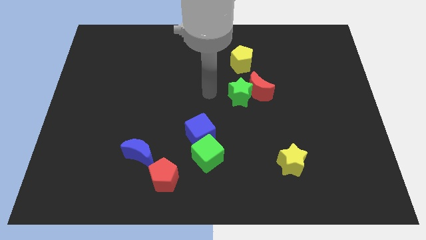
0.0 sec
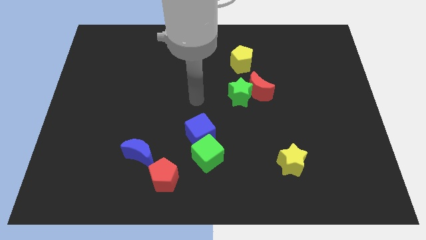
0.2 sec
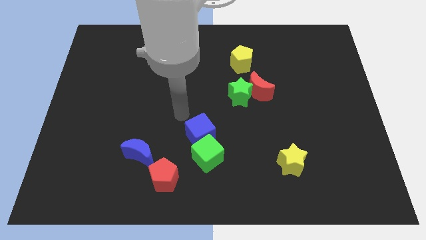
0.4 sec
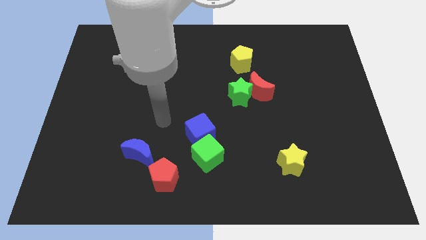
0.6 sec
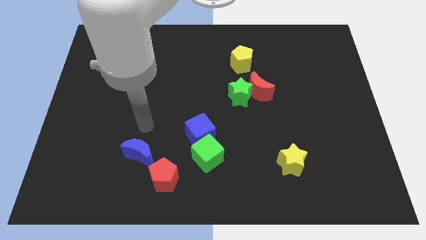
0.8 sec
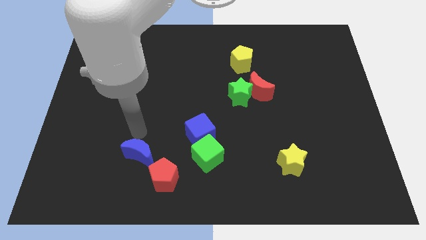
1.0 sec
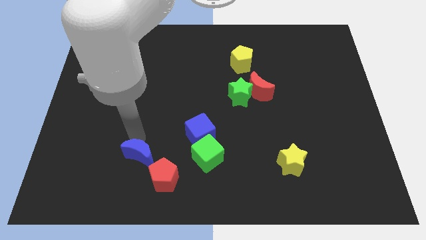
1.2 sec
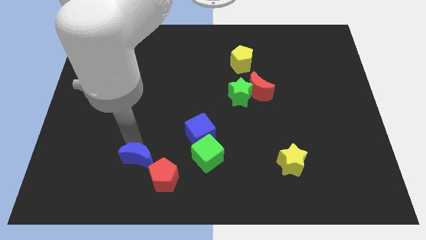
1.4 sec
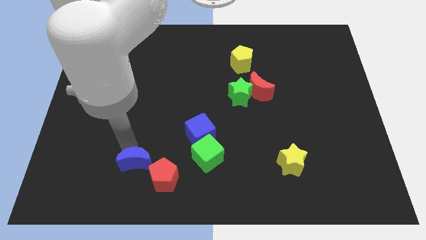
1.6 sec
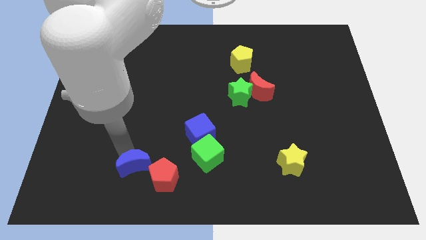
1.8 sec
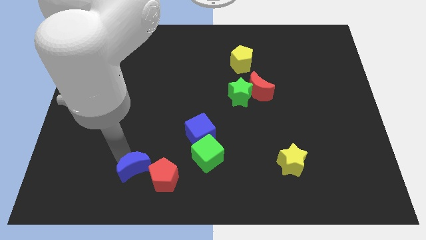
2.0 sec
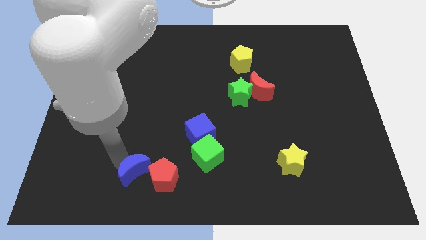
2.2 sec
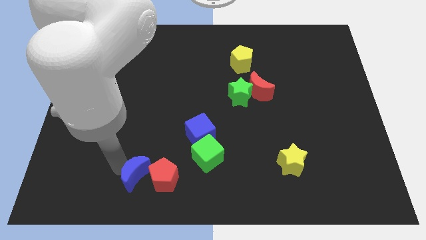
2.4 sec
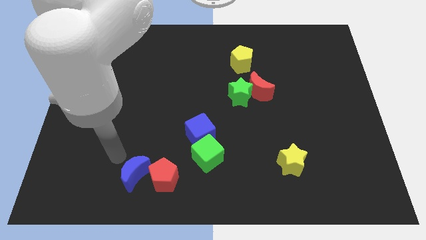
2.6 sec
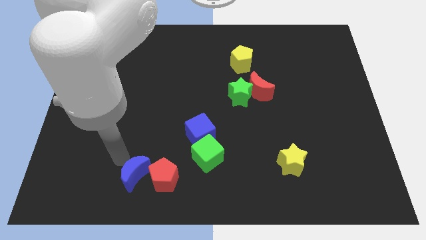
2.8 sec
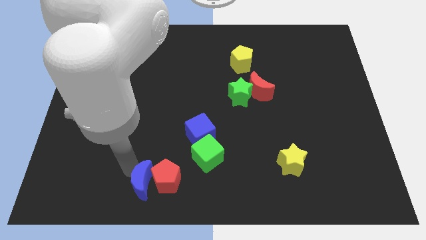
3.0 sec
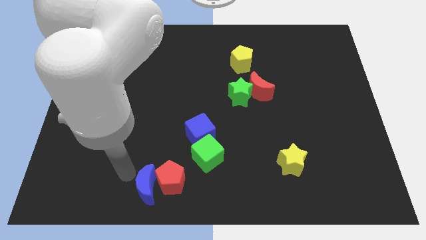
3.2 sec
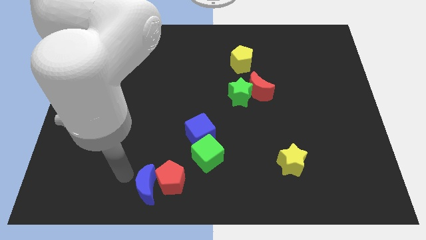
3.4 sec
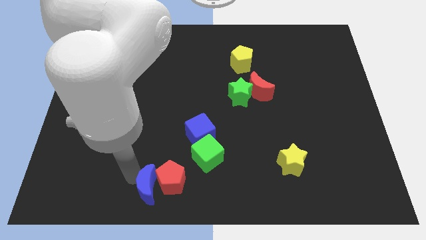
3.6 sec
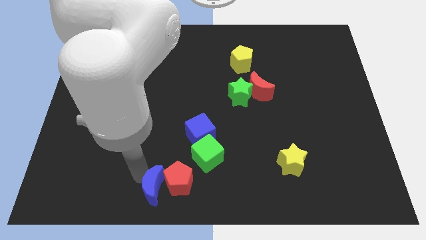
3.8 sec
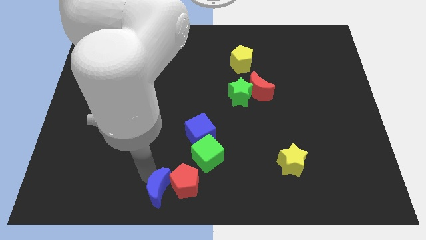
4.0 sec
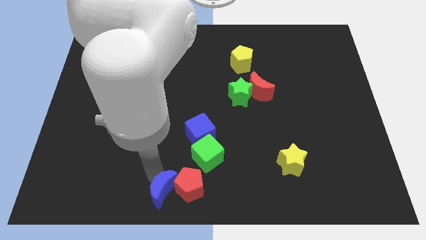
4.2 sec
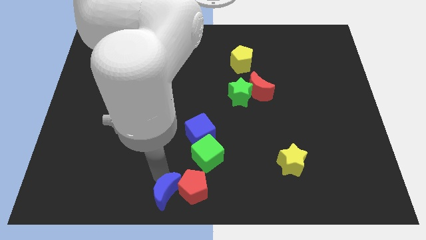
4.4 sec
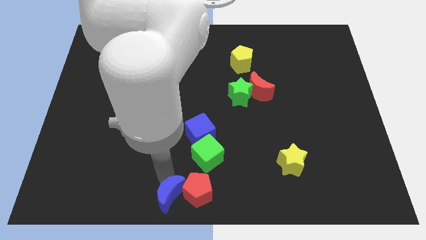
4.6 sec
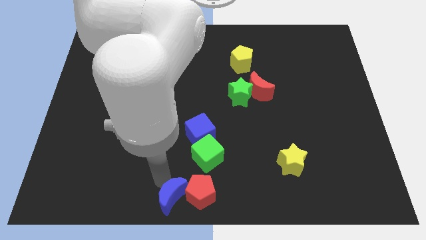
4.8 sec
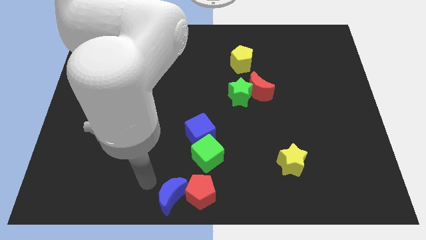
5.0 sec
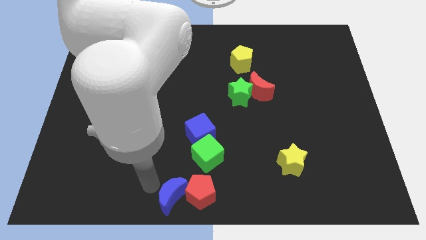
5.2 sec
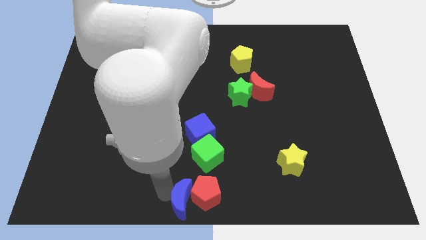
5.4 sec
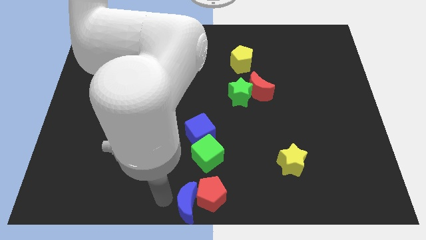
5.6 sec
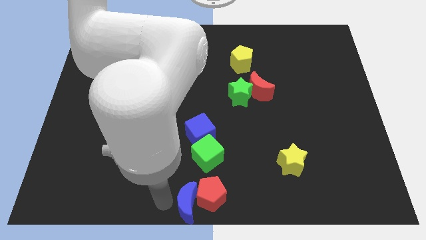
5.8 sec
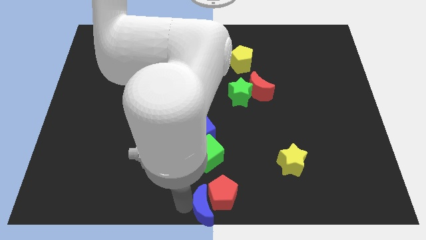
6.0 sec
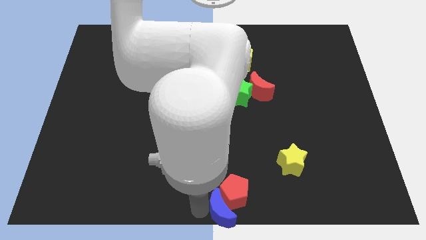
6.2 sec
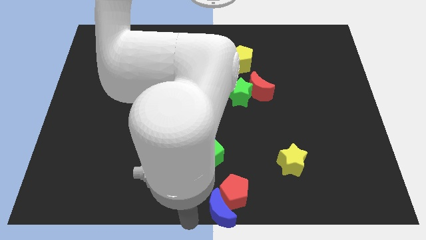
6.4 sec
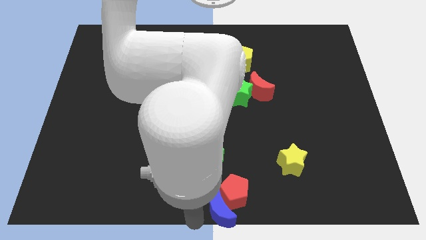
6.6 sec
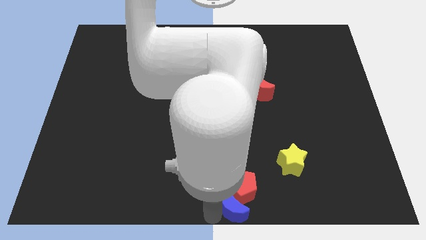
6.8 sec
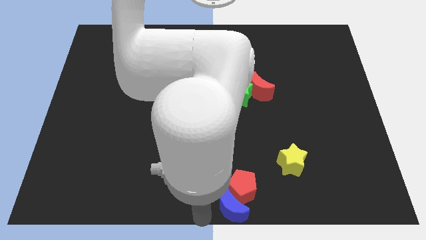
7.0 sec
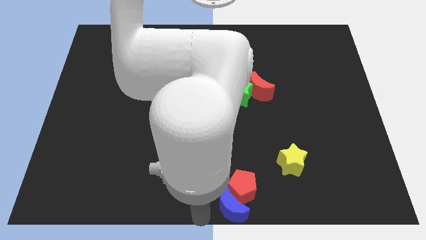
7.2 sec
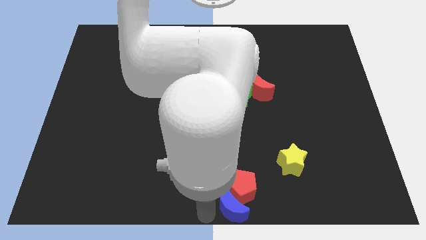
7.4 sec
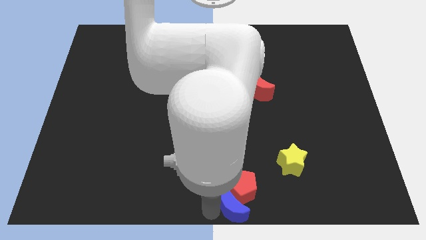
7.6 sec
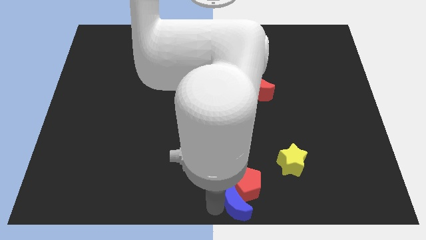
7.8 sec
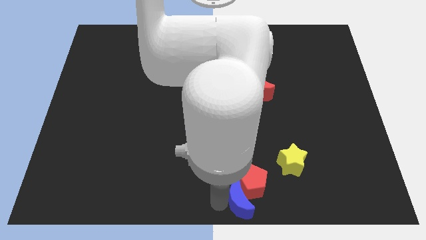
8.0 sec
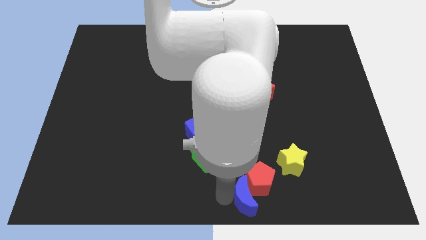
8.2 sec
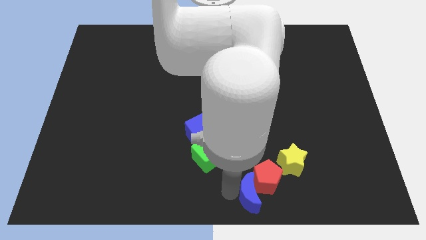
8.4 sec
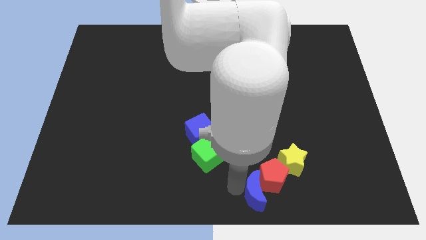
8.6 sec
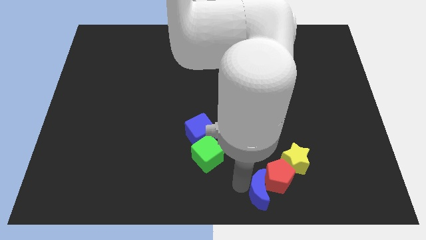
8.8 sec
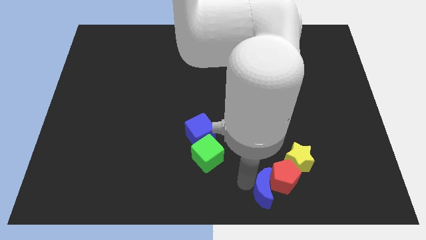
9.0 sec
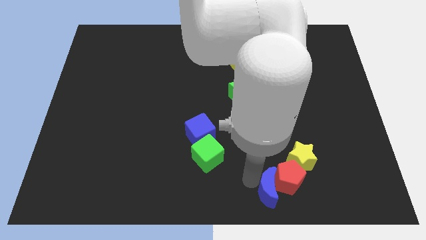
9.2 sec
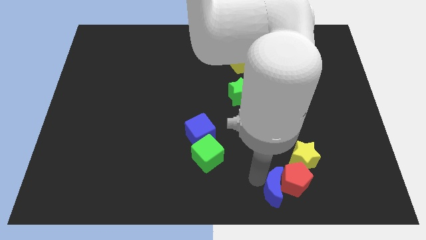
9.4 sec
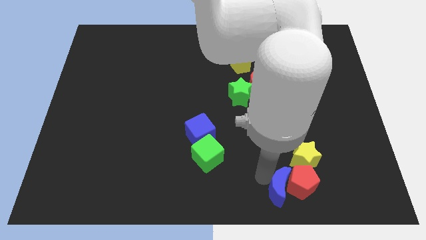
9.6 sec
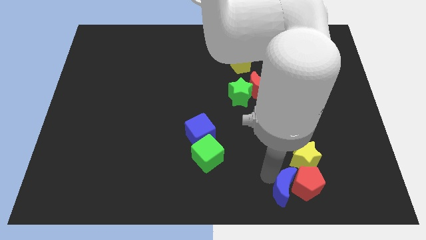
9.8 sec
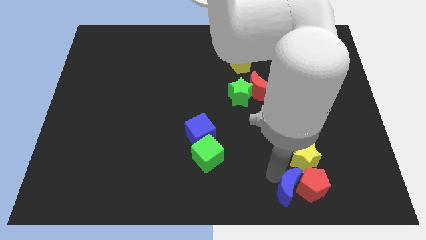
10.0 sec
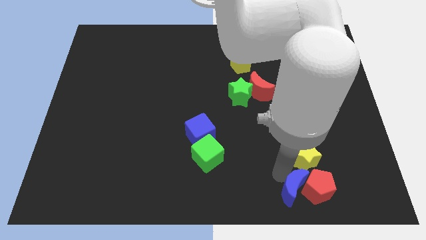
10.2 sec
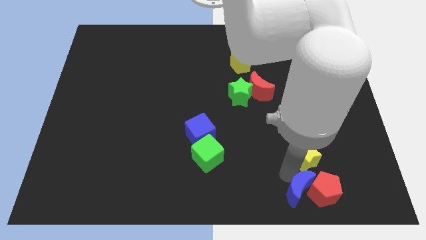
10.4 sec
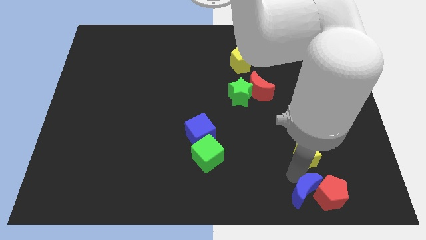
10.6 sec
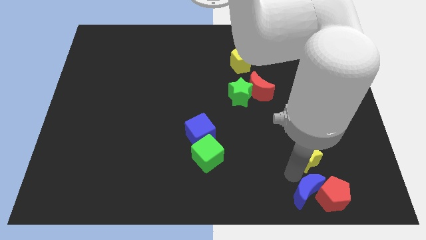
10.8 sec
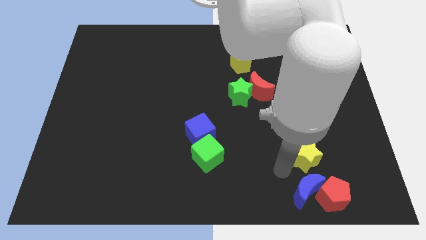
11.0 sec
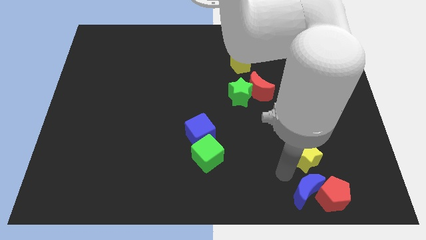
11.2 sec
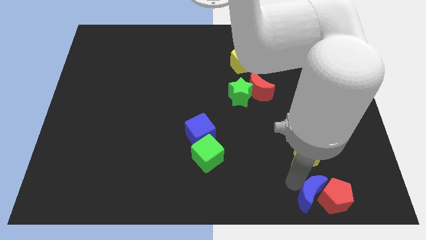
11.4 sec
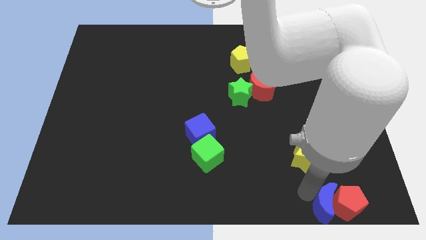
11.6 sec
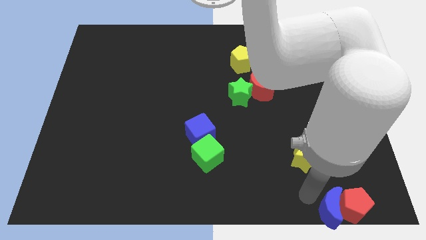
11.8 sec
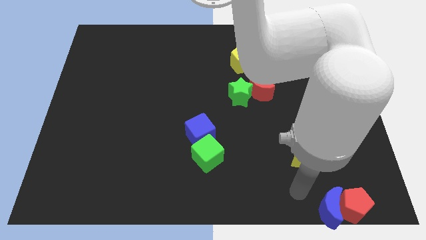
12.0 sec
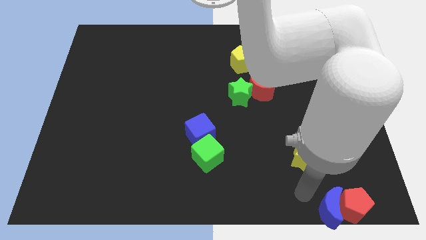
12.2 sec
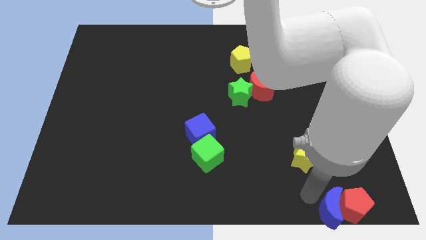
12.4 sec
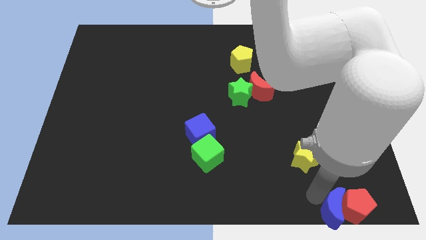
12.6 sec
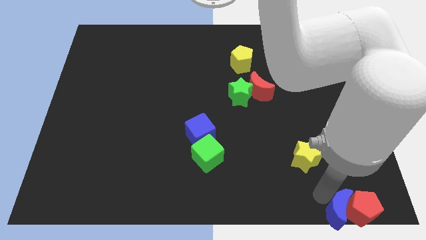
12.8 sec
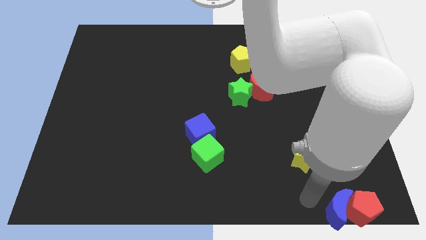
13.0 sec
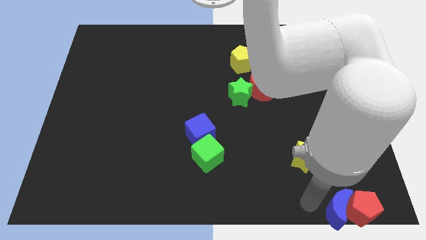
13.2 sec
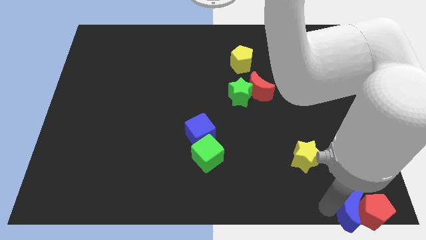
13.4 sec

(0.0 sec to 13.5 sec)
push the blue moon to the lower right corner
